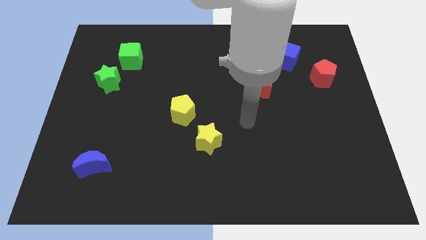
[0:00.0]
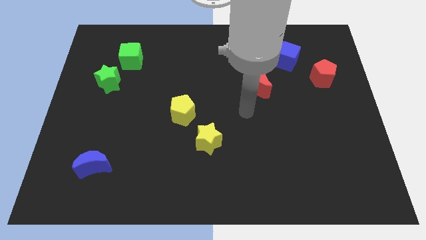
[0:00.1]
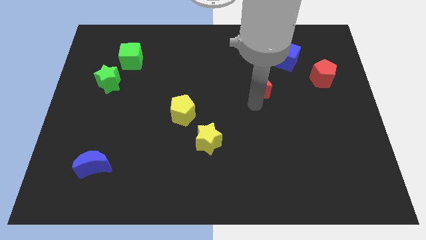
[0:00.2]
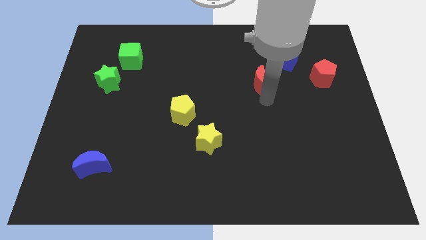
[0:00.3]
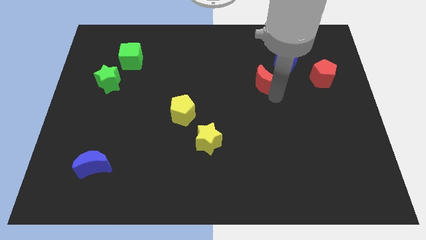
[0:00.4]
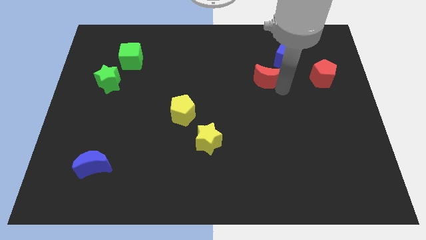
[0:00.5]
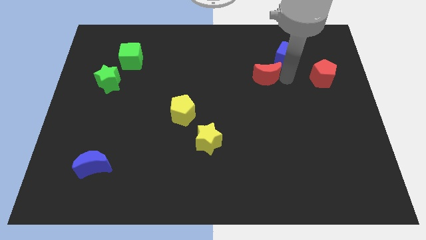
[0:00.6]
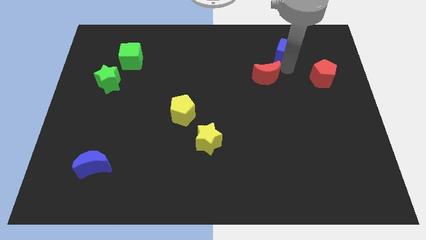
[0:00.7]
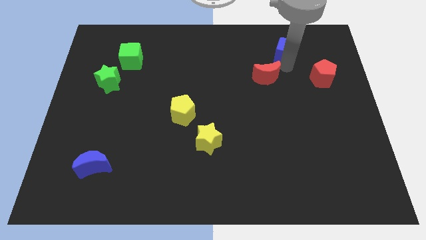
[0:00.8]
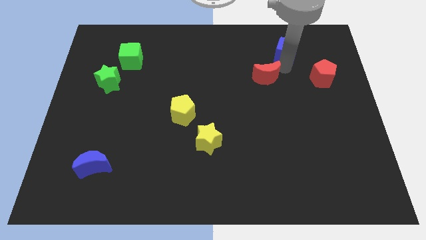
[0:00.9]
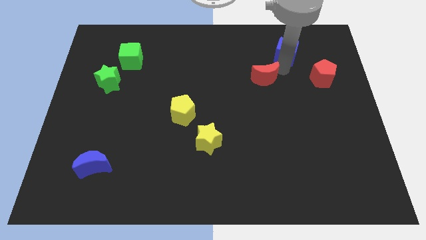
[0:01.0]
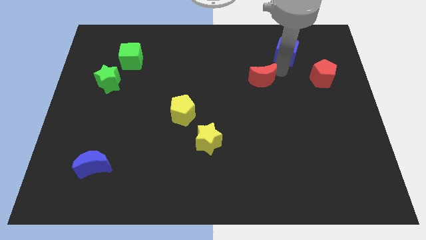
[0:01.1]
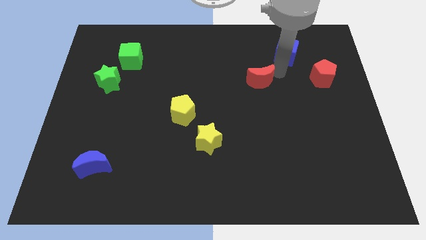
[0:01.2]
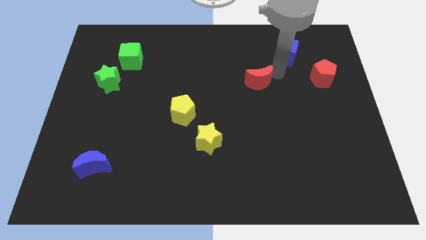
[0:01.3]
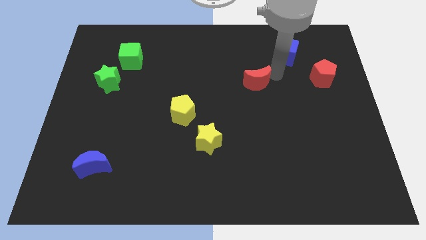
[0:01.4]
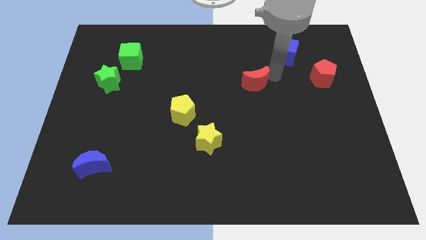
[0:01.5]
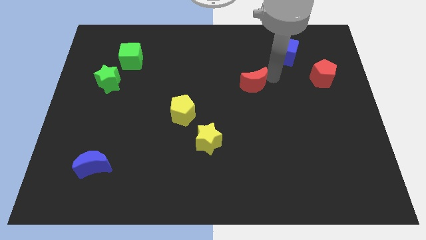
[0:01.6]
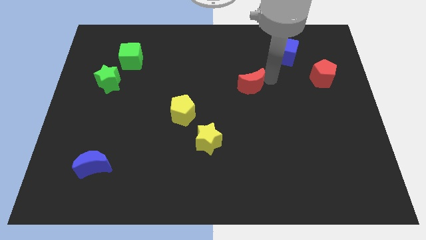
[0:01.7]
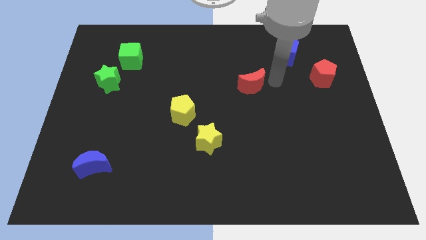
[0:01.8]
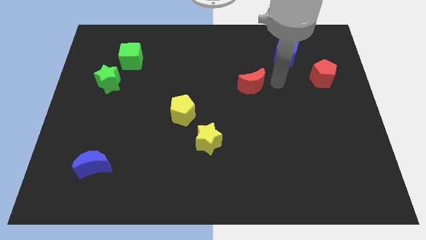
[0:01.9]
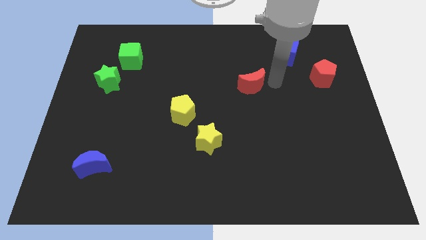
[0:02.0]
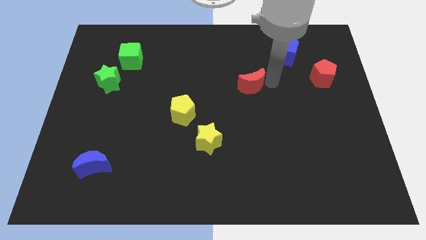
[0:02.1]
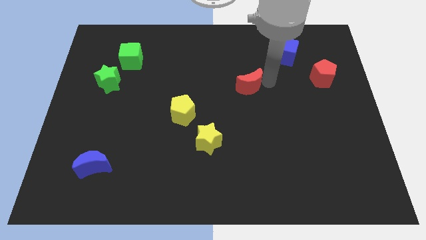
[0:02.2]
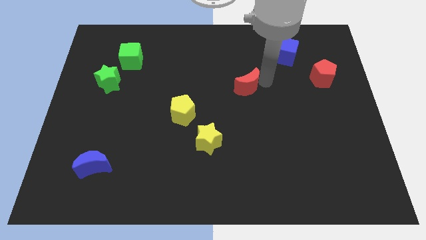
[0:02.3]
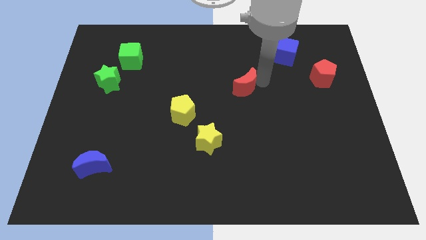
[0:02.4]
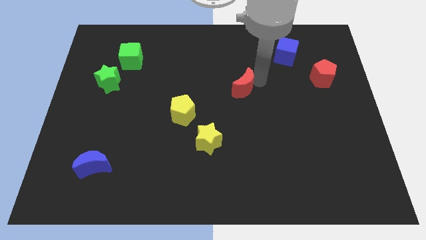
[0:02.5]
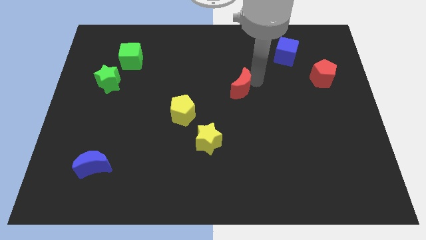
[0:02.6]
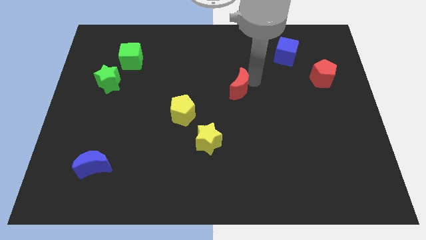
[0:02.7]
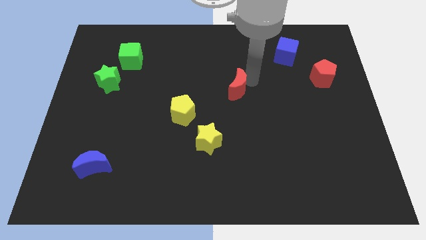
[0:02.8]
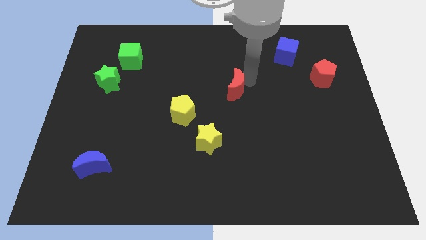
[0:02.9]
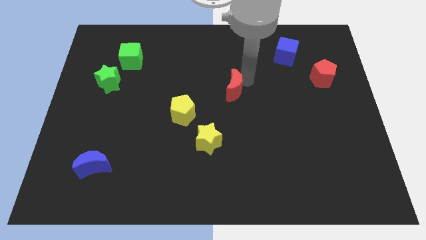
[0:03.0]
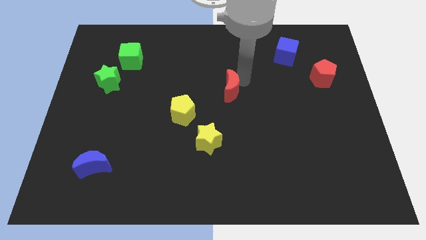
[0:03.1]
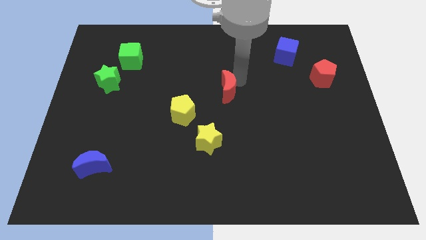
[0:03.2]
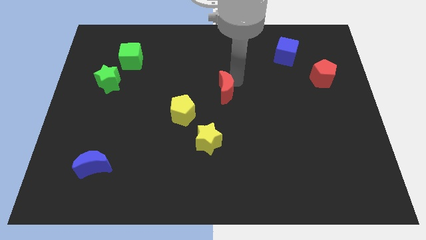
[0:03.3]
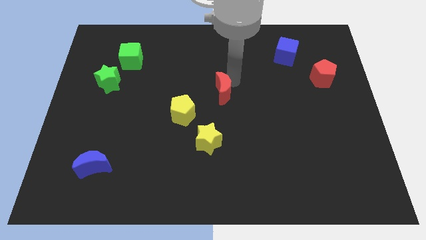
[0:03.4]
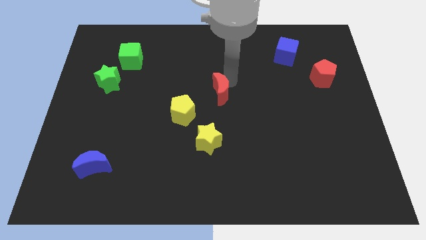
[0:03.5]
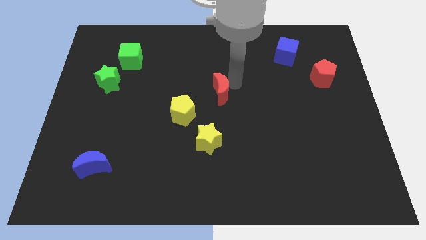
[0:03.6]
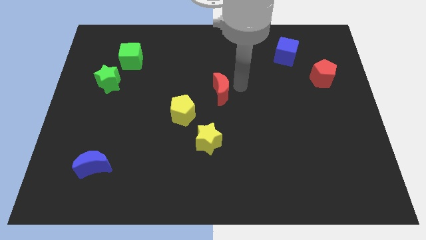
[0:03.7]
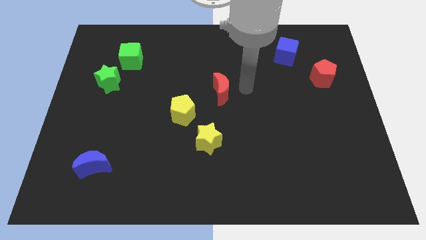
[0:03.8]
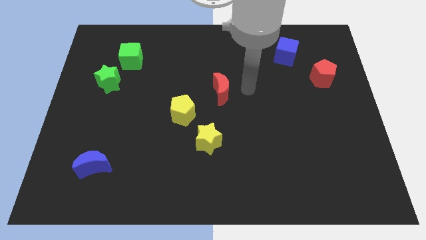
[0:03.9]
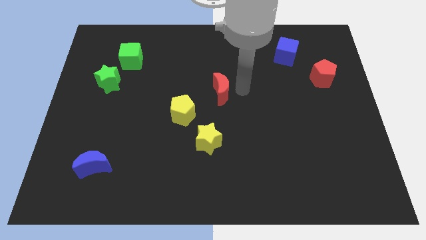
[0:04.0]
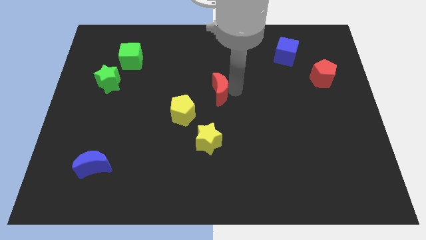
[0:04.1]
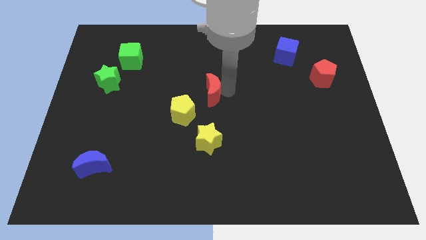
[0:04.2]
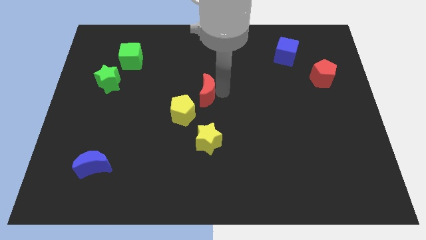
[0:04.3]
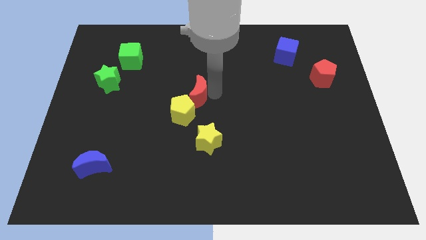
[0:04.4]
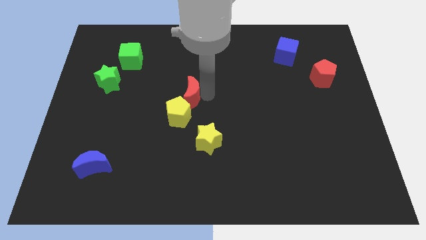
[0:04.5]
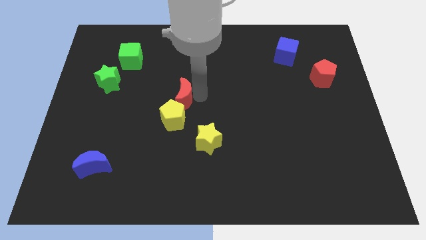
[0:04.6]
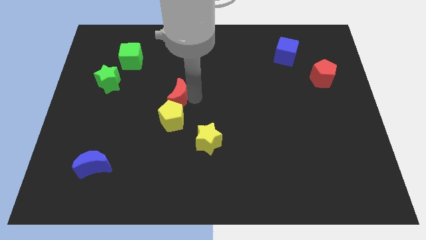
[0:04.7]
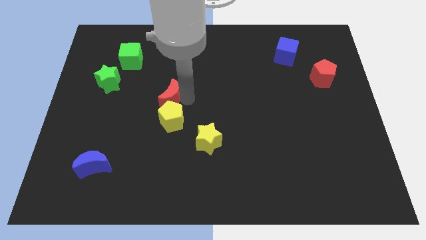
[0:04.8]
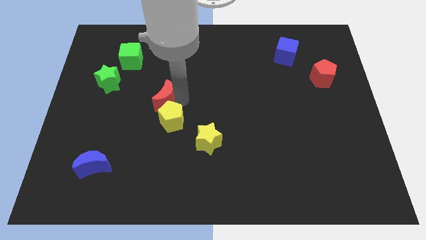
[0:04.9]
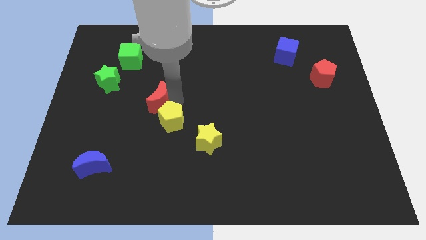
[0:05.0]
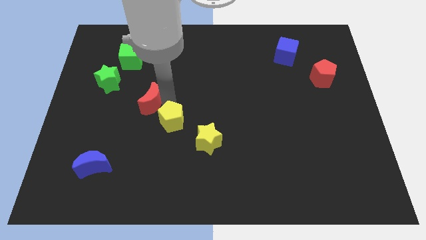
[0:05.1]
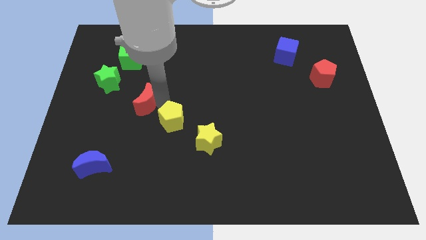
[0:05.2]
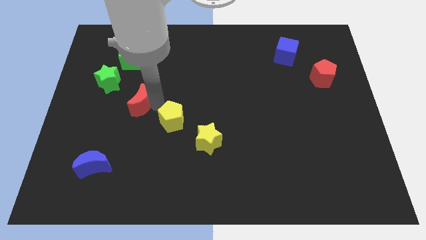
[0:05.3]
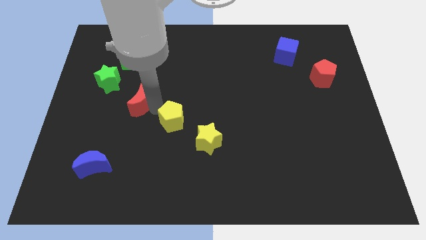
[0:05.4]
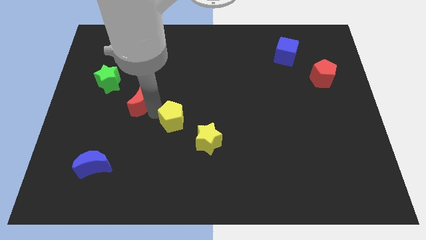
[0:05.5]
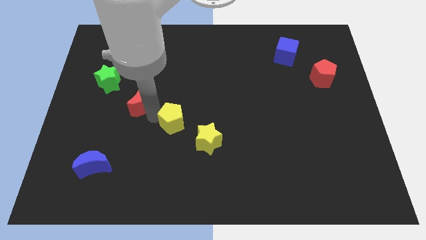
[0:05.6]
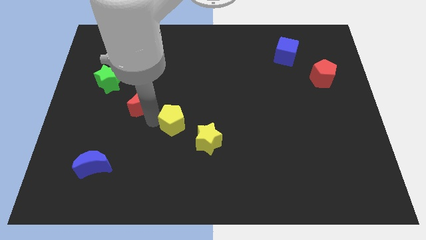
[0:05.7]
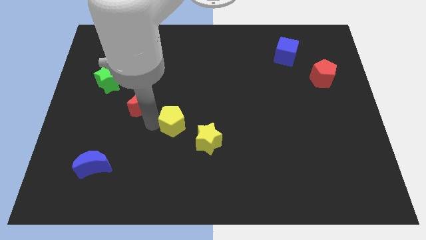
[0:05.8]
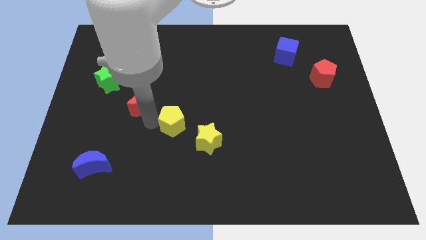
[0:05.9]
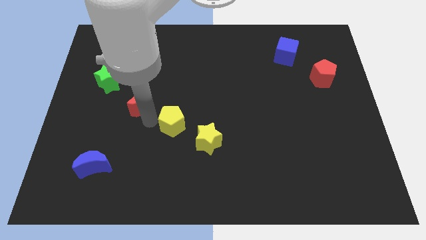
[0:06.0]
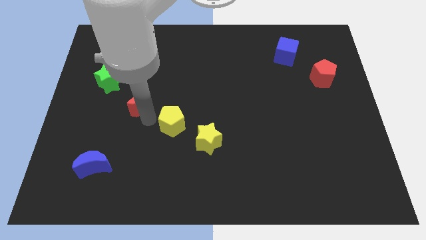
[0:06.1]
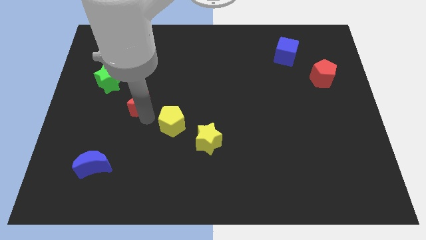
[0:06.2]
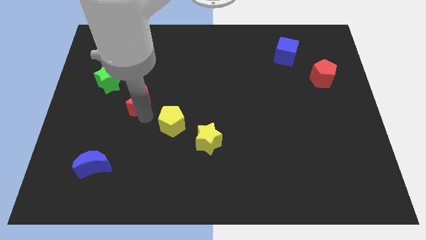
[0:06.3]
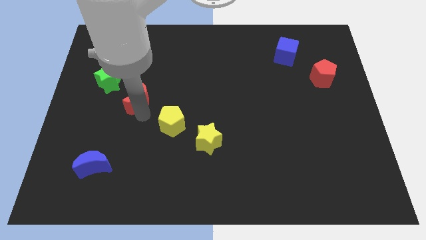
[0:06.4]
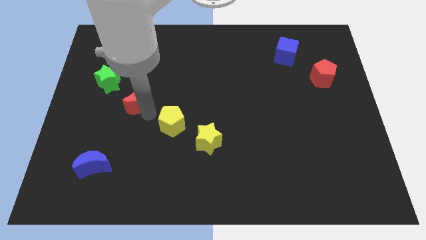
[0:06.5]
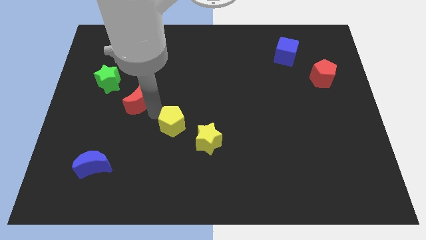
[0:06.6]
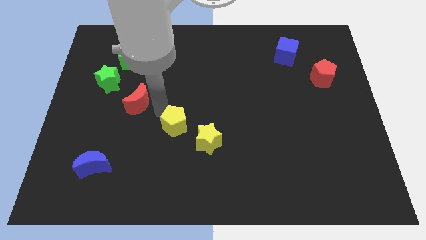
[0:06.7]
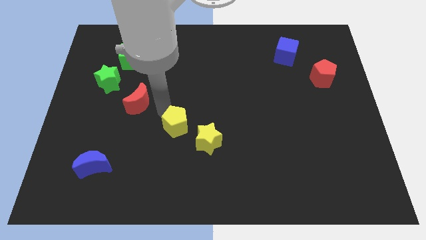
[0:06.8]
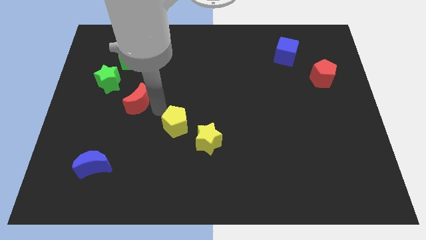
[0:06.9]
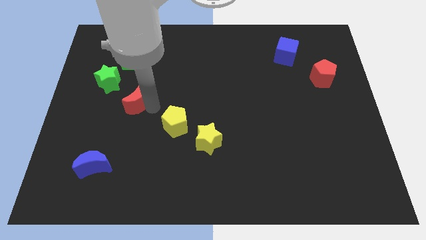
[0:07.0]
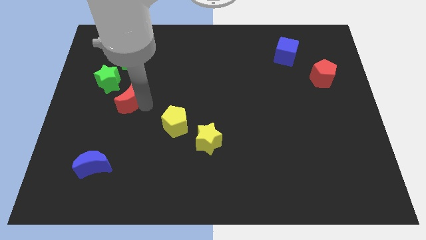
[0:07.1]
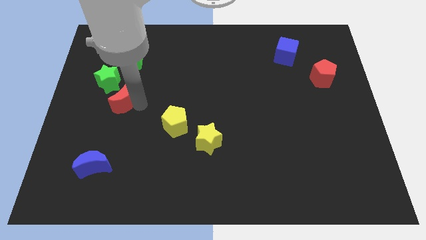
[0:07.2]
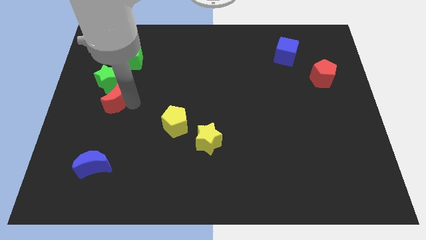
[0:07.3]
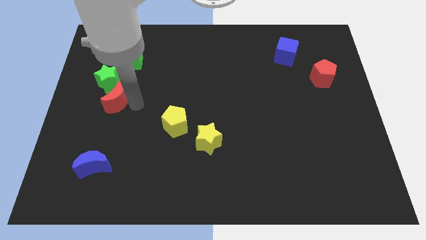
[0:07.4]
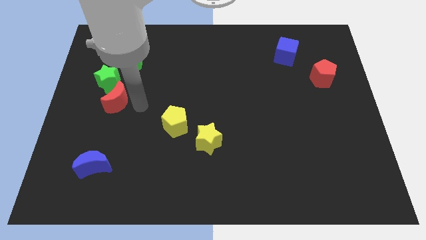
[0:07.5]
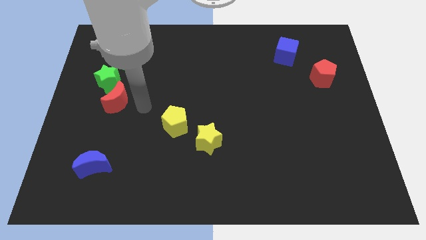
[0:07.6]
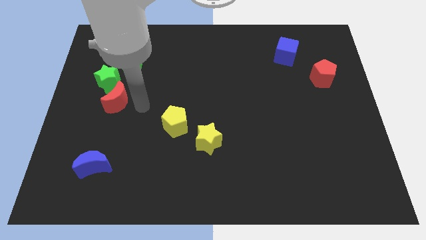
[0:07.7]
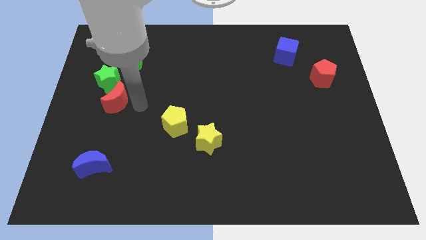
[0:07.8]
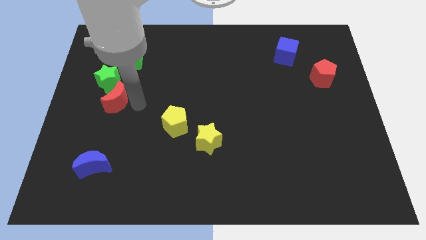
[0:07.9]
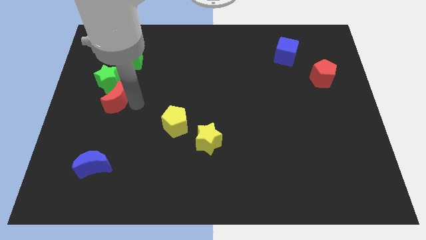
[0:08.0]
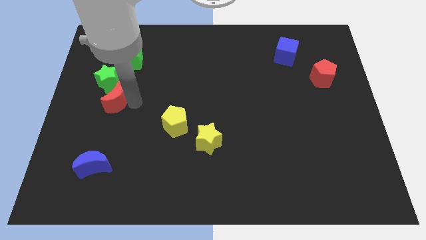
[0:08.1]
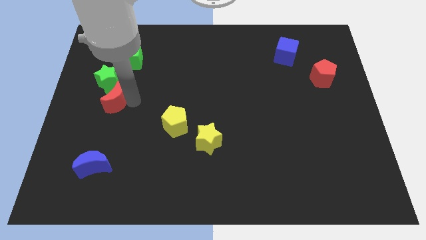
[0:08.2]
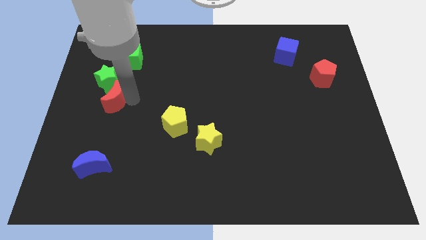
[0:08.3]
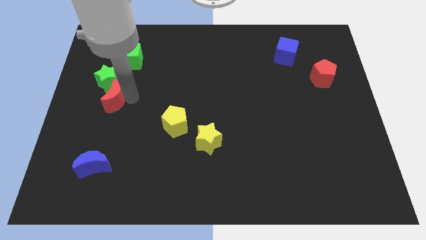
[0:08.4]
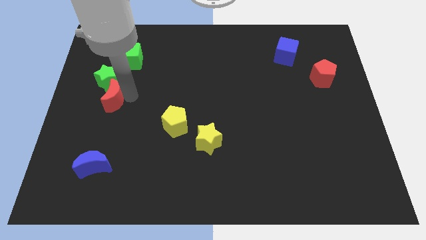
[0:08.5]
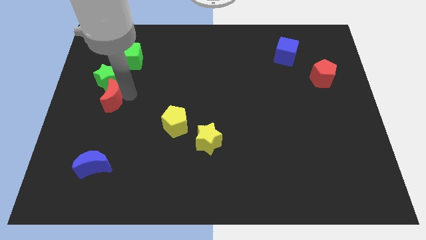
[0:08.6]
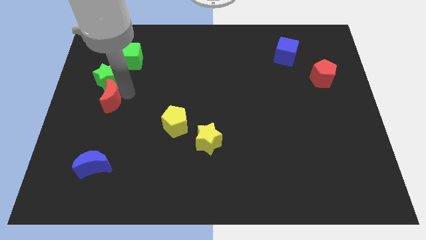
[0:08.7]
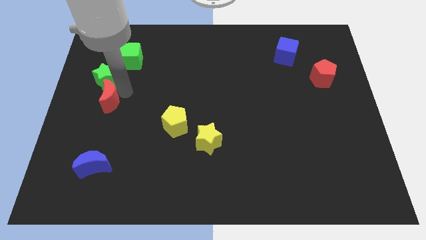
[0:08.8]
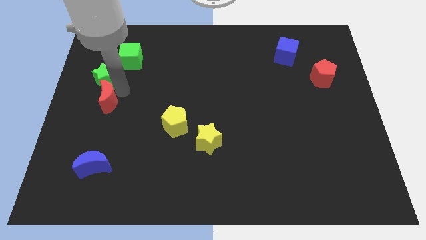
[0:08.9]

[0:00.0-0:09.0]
slide the red moon to the center left
